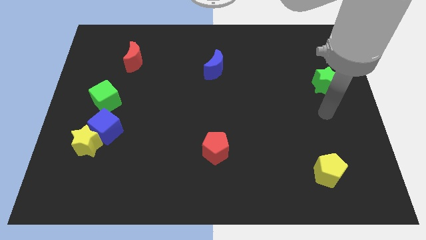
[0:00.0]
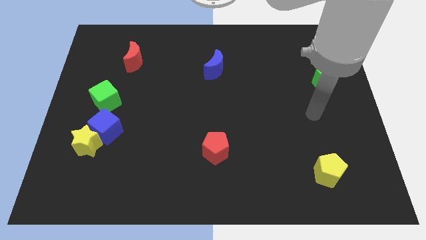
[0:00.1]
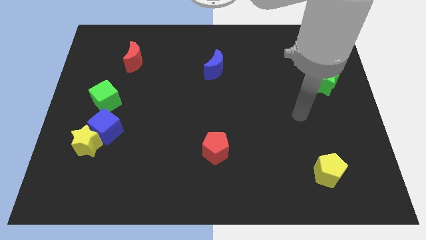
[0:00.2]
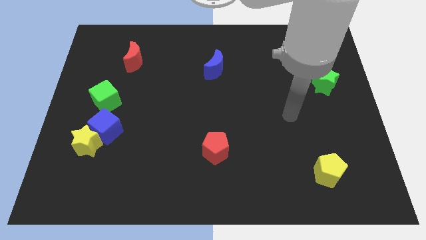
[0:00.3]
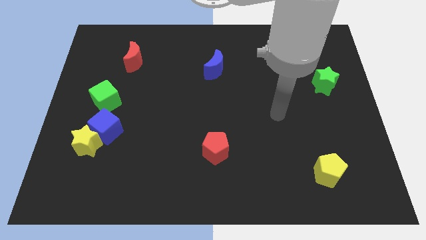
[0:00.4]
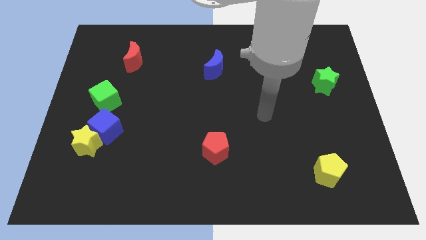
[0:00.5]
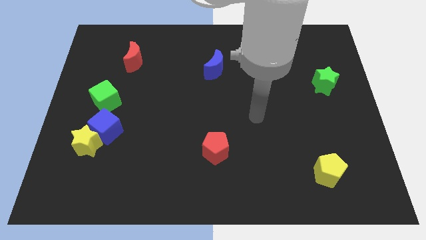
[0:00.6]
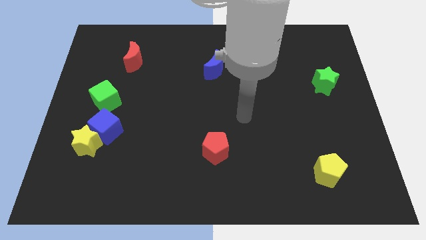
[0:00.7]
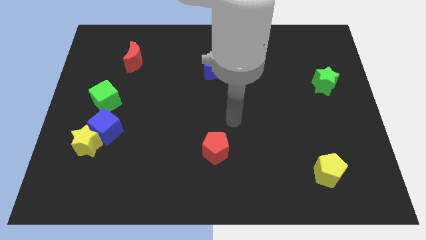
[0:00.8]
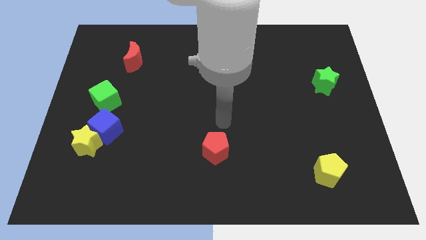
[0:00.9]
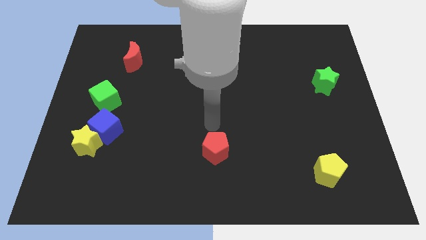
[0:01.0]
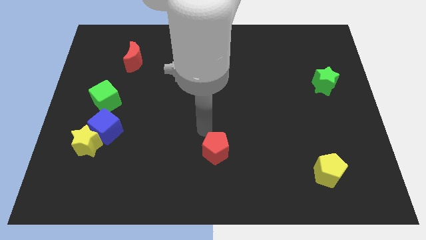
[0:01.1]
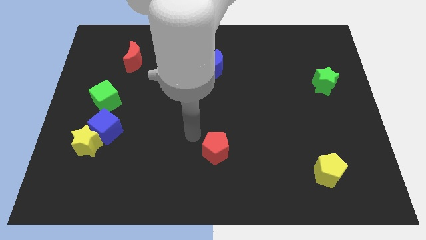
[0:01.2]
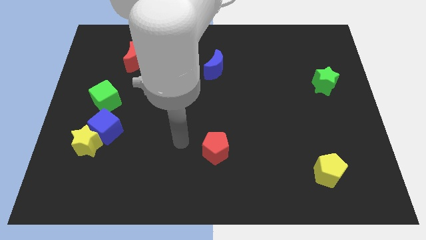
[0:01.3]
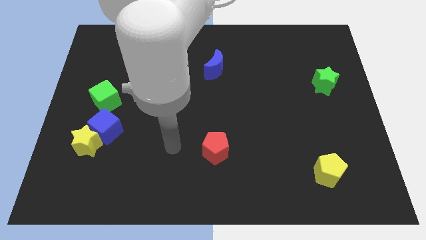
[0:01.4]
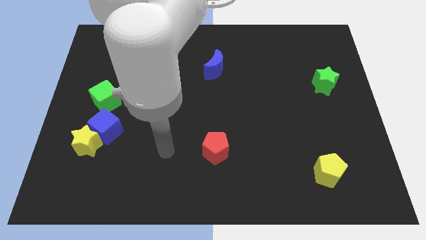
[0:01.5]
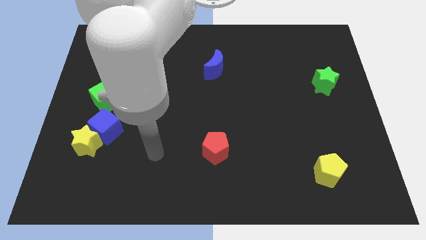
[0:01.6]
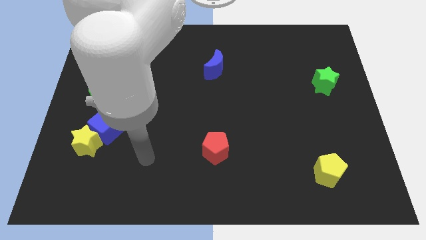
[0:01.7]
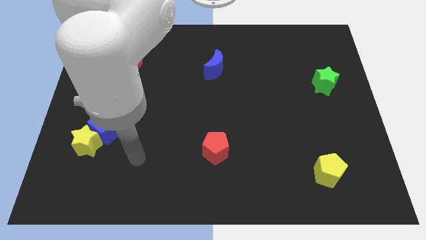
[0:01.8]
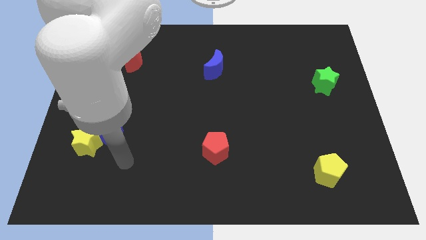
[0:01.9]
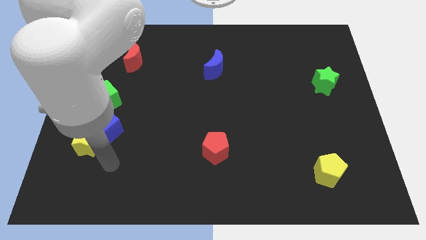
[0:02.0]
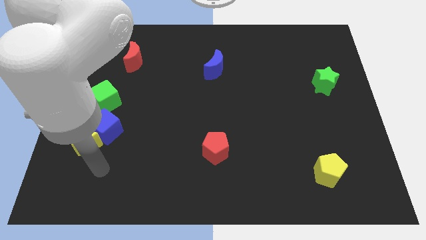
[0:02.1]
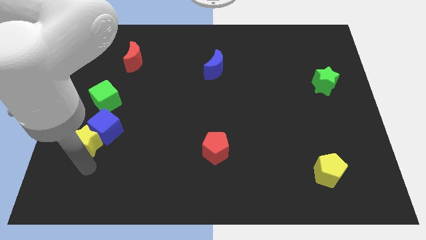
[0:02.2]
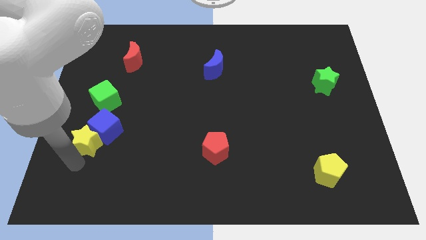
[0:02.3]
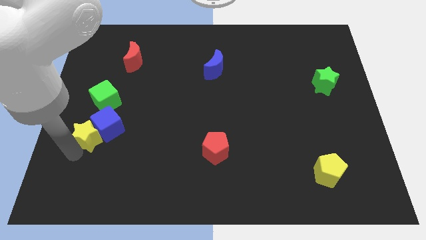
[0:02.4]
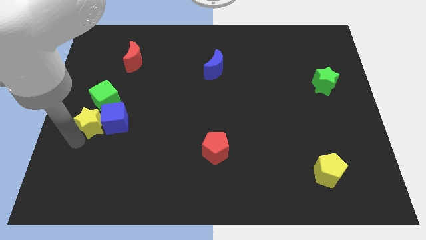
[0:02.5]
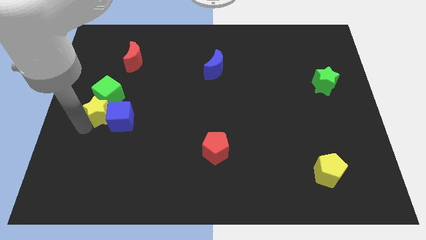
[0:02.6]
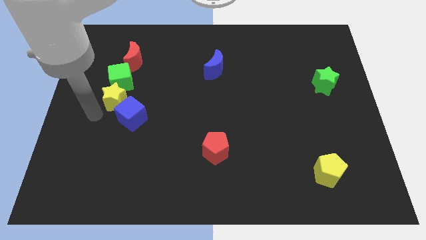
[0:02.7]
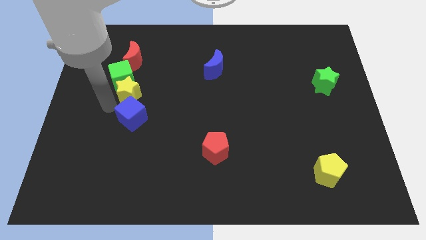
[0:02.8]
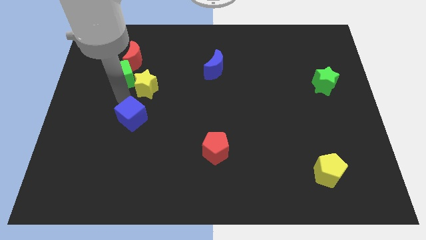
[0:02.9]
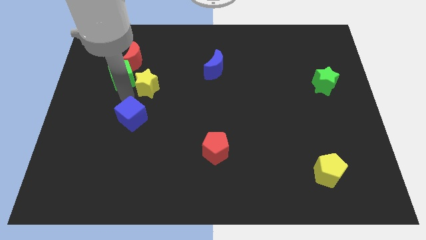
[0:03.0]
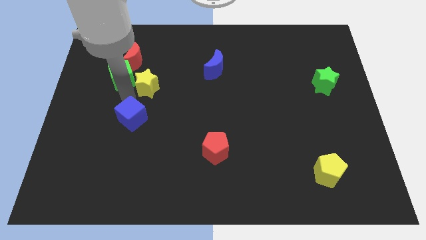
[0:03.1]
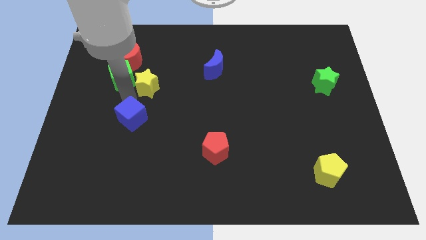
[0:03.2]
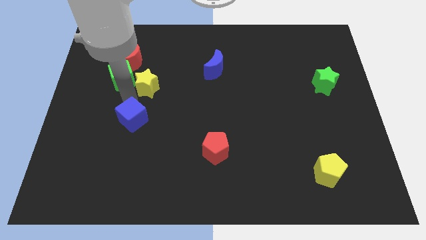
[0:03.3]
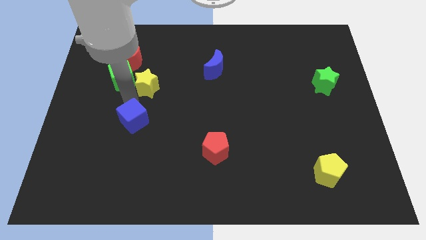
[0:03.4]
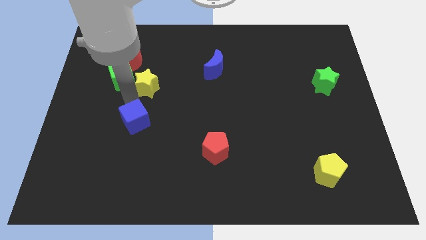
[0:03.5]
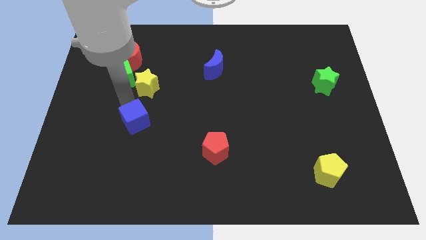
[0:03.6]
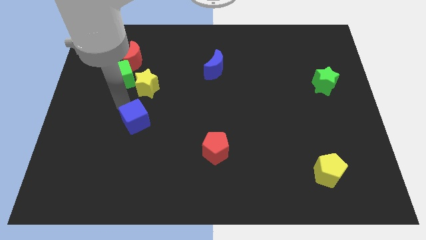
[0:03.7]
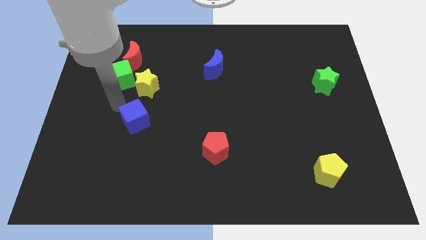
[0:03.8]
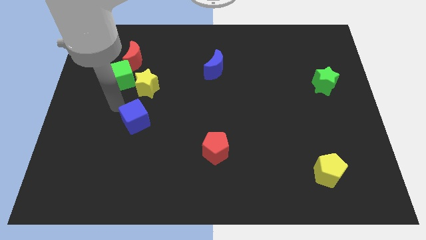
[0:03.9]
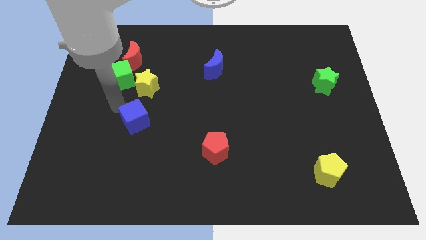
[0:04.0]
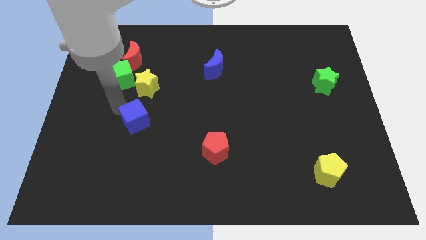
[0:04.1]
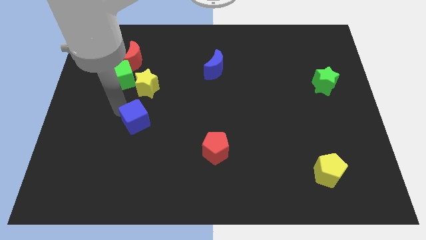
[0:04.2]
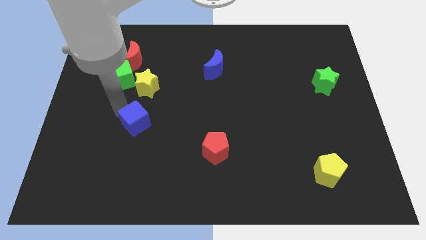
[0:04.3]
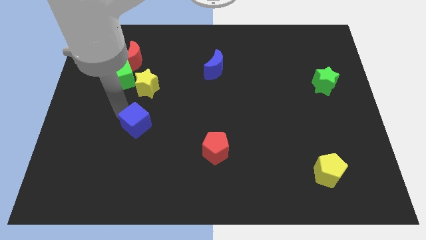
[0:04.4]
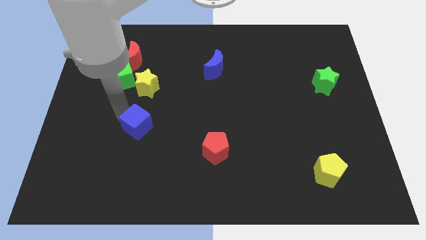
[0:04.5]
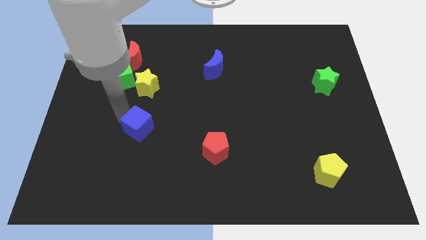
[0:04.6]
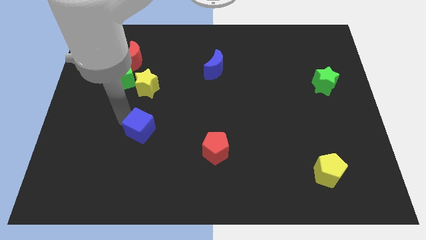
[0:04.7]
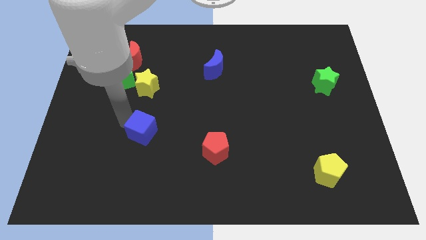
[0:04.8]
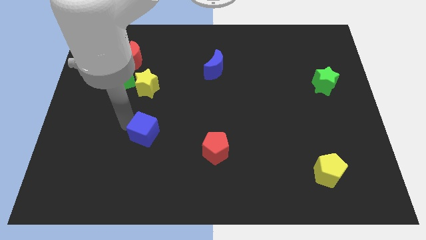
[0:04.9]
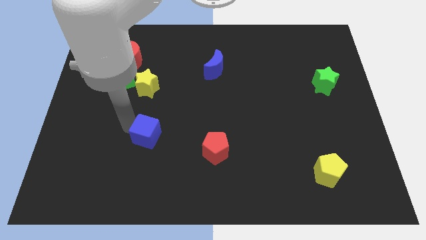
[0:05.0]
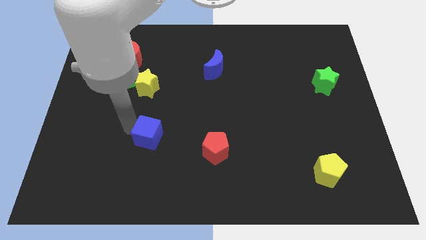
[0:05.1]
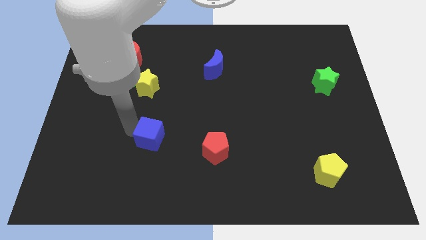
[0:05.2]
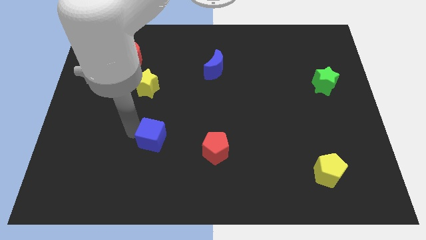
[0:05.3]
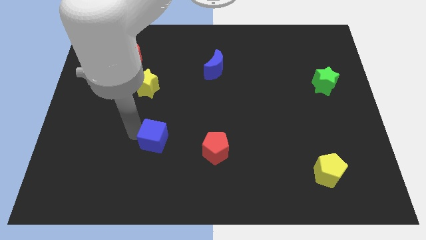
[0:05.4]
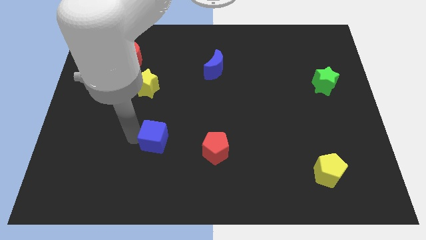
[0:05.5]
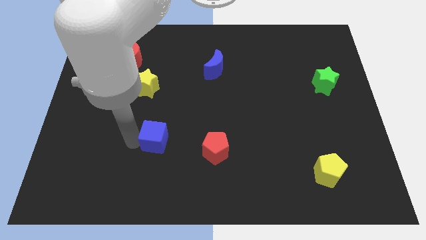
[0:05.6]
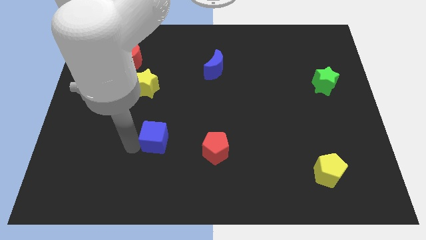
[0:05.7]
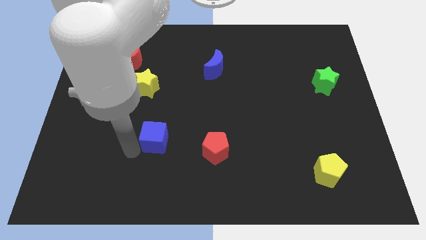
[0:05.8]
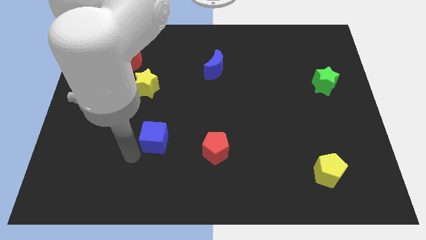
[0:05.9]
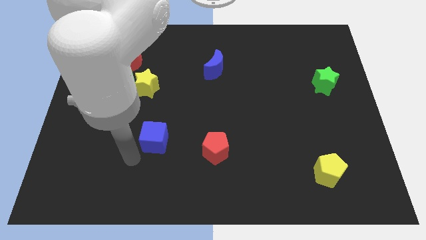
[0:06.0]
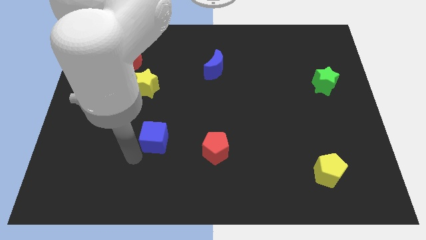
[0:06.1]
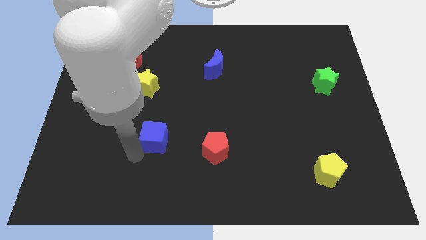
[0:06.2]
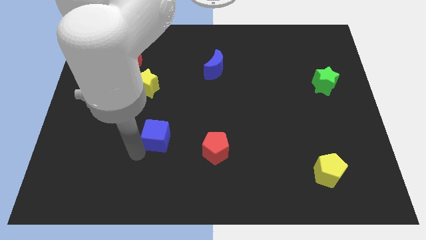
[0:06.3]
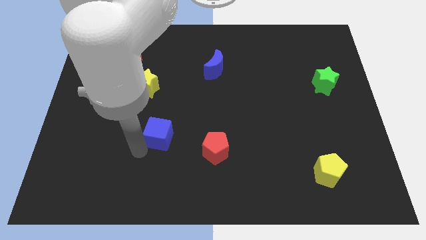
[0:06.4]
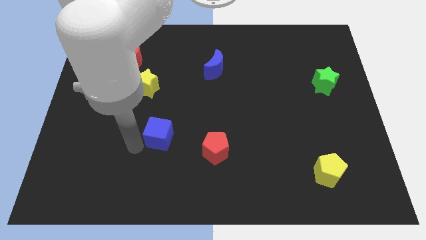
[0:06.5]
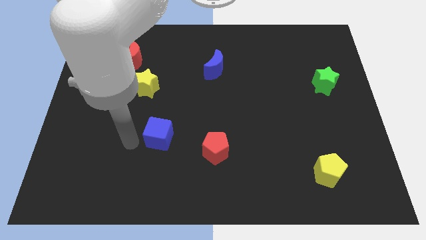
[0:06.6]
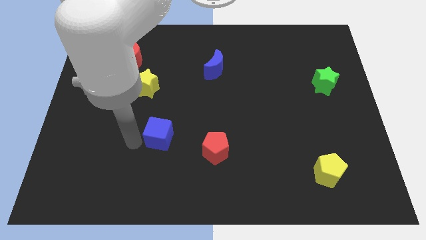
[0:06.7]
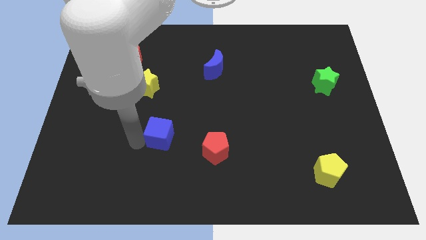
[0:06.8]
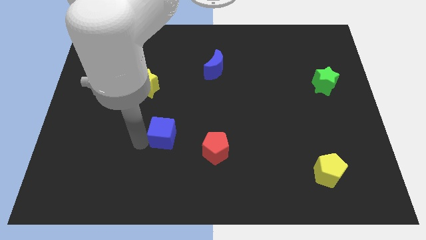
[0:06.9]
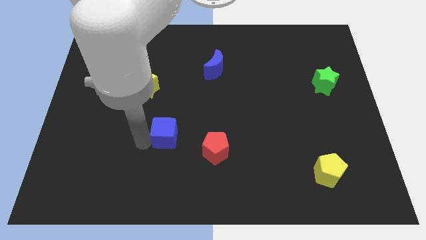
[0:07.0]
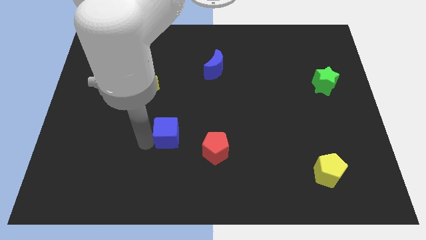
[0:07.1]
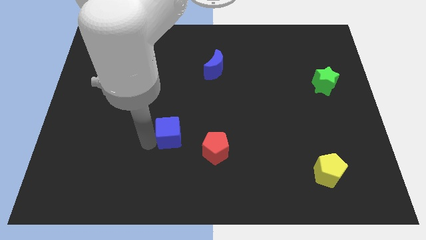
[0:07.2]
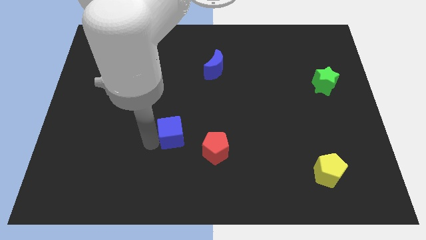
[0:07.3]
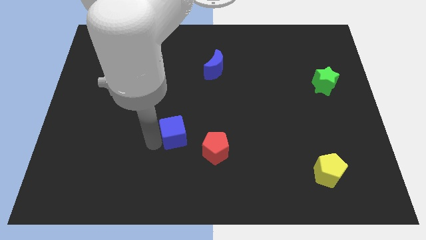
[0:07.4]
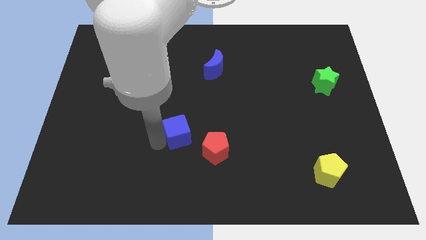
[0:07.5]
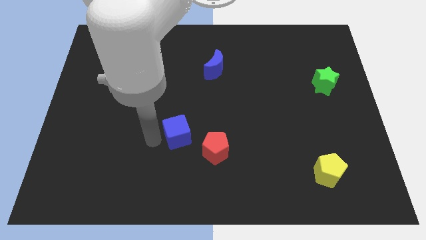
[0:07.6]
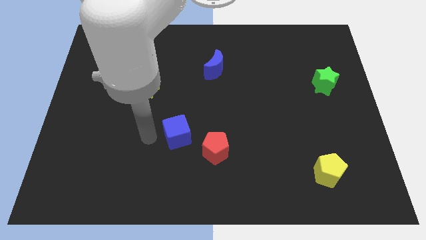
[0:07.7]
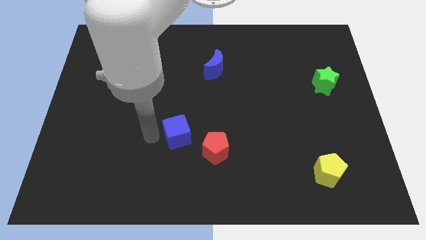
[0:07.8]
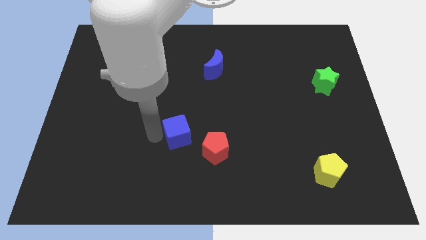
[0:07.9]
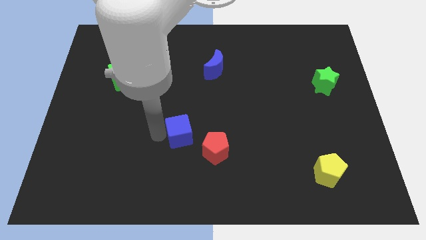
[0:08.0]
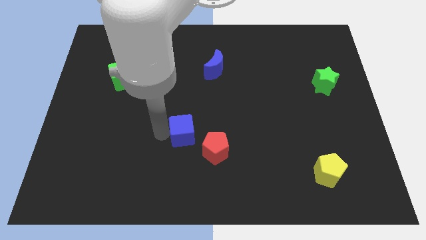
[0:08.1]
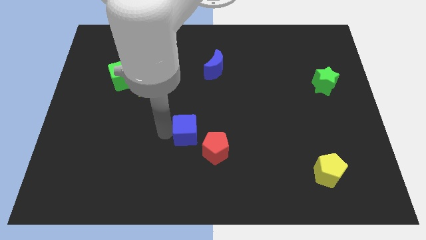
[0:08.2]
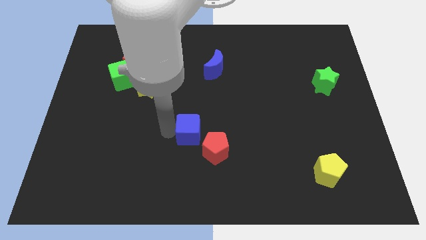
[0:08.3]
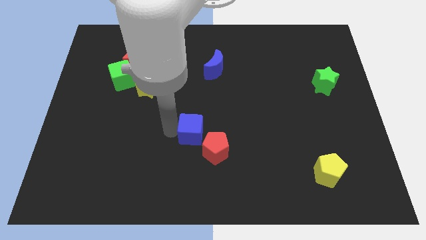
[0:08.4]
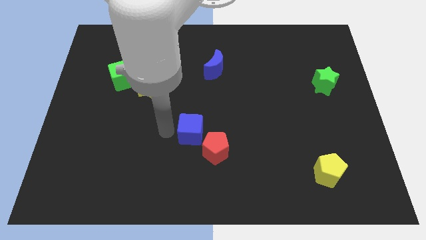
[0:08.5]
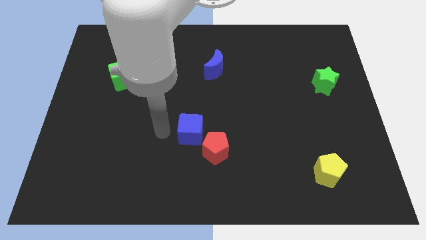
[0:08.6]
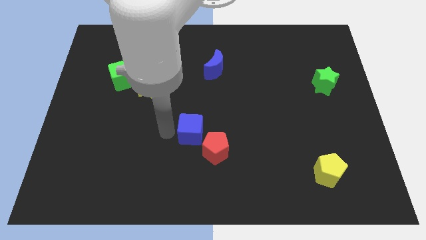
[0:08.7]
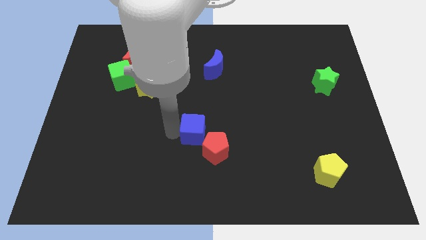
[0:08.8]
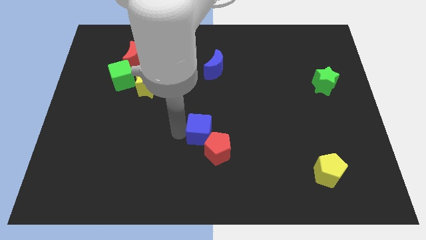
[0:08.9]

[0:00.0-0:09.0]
move the blue cube to the right
